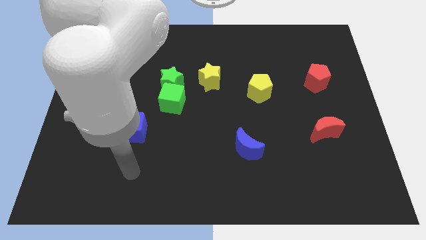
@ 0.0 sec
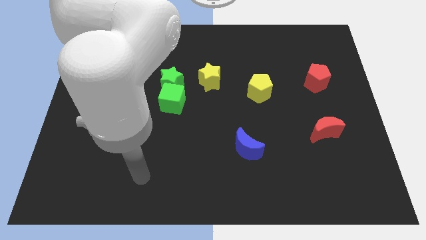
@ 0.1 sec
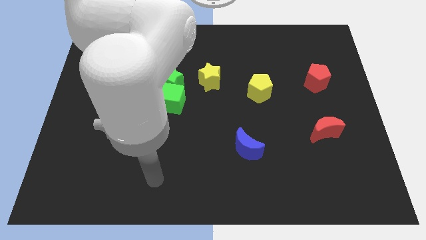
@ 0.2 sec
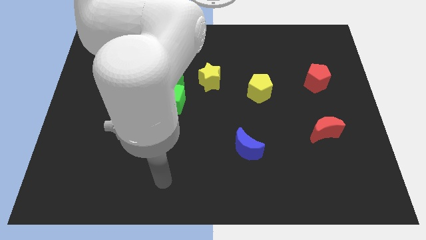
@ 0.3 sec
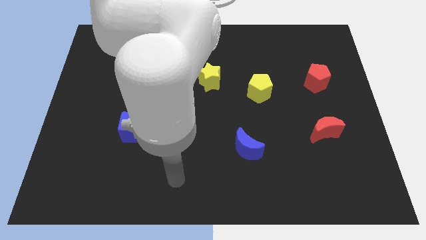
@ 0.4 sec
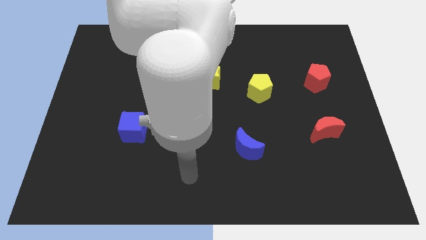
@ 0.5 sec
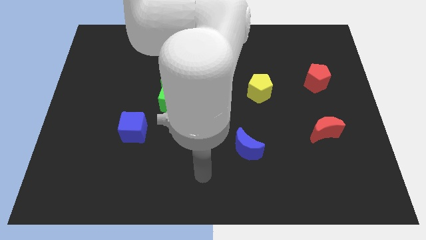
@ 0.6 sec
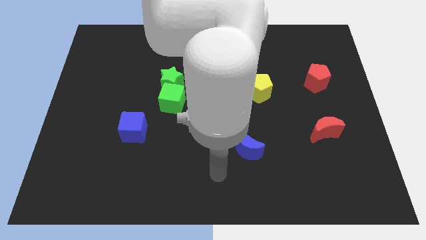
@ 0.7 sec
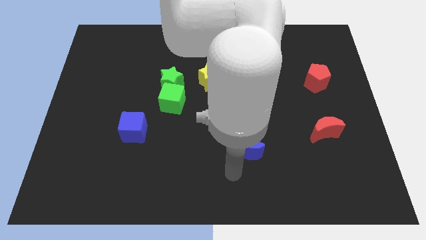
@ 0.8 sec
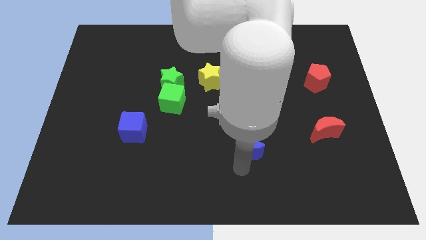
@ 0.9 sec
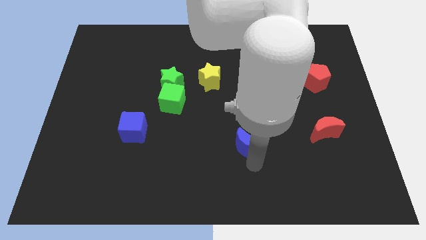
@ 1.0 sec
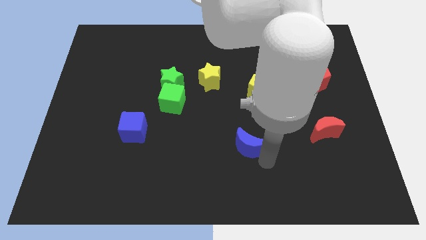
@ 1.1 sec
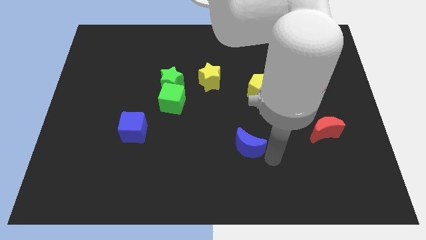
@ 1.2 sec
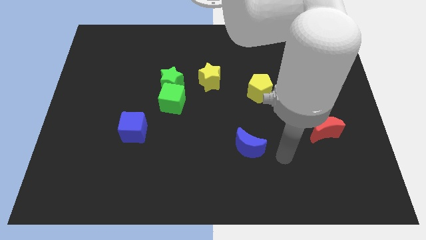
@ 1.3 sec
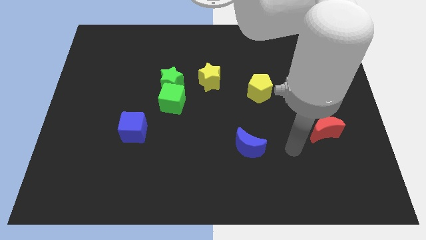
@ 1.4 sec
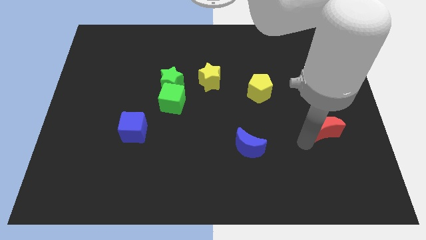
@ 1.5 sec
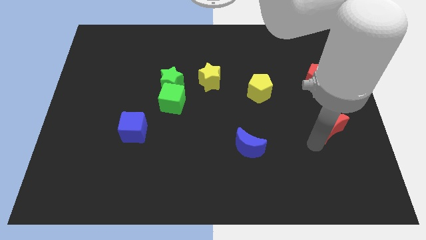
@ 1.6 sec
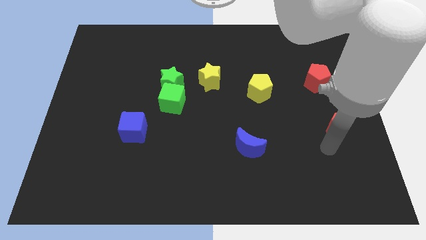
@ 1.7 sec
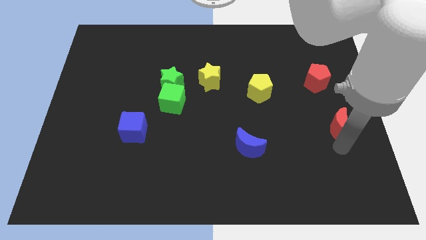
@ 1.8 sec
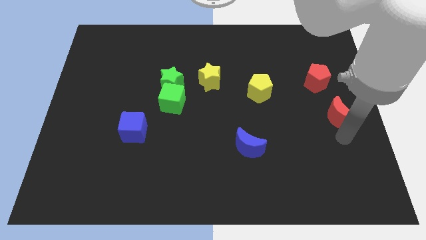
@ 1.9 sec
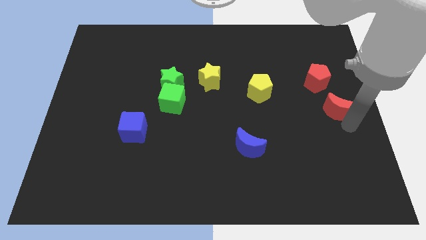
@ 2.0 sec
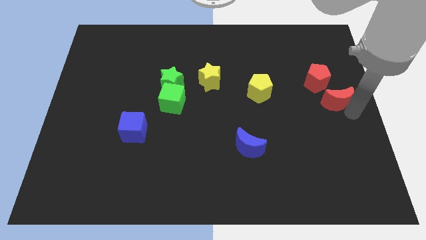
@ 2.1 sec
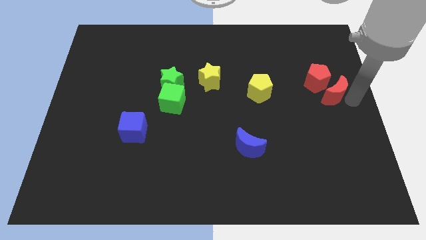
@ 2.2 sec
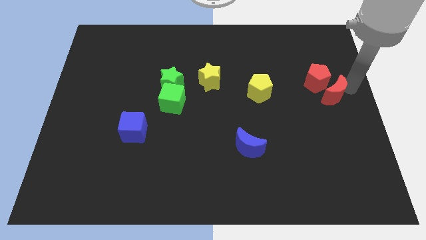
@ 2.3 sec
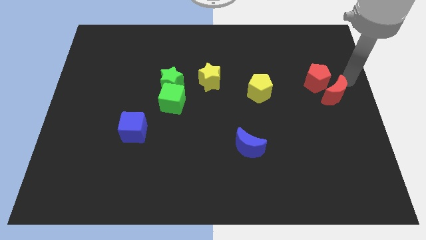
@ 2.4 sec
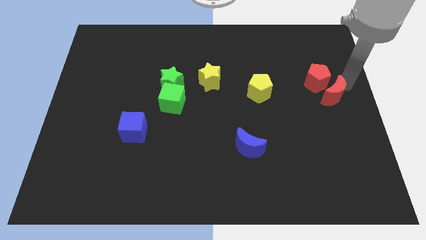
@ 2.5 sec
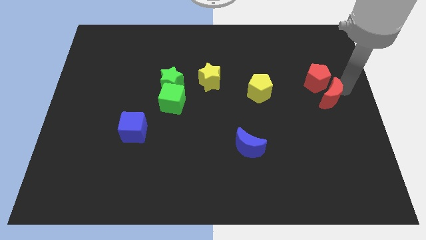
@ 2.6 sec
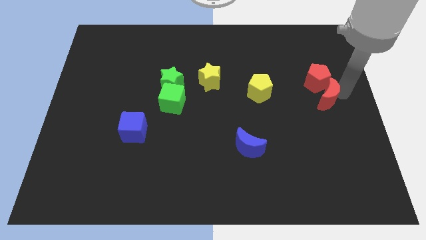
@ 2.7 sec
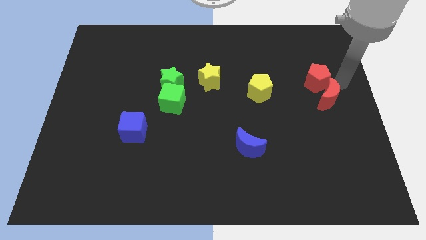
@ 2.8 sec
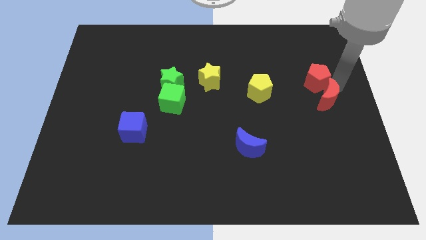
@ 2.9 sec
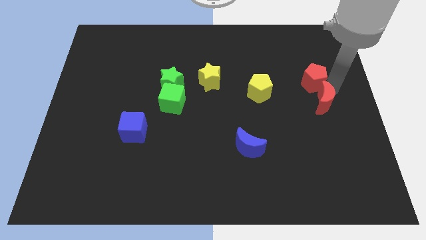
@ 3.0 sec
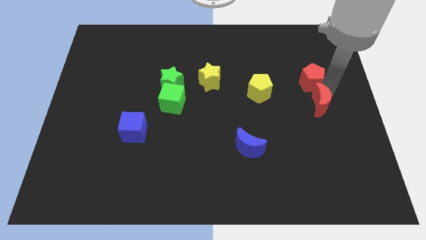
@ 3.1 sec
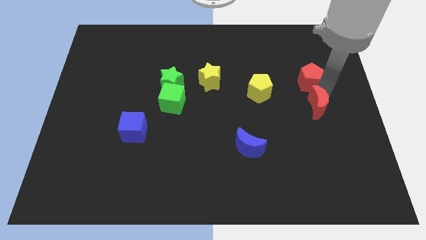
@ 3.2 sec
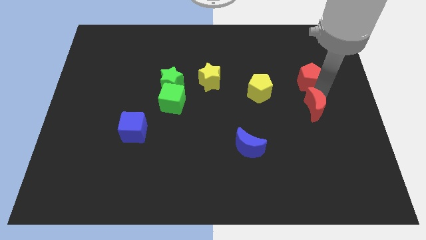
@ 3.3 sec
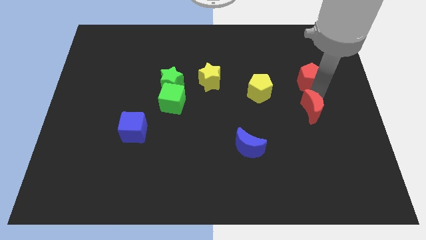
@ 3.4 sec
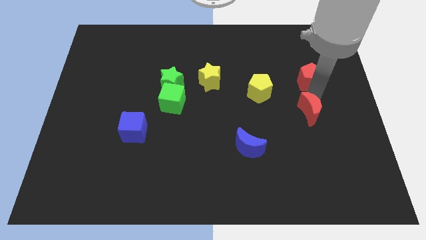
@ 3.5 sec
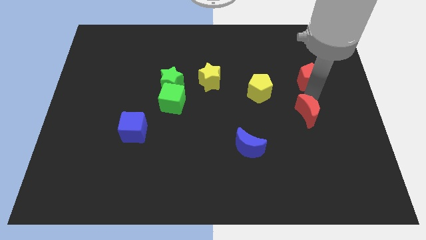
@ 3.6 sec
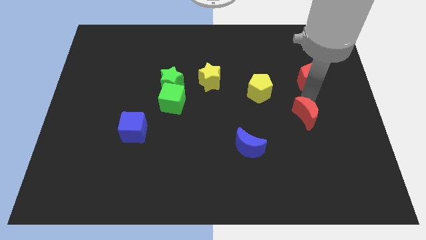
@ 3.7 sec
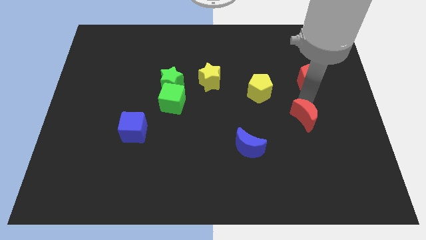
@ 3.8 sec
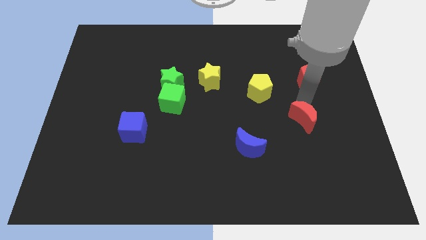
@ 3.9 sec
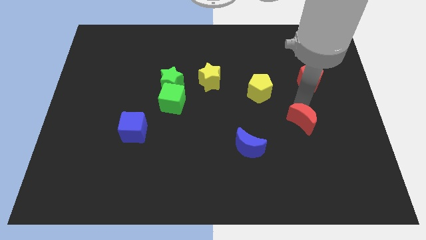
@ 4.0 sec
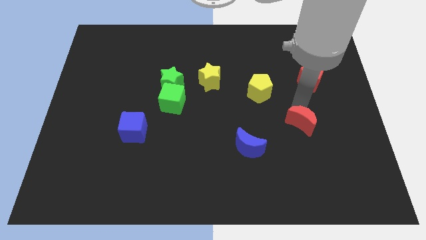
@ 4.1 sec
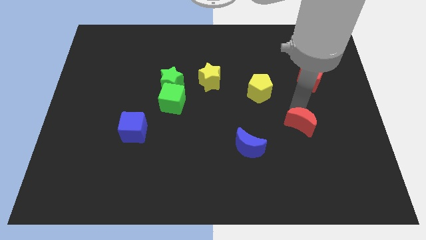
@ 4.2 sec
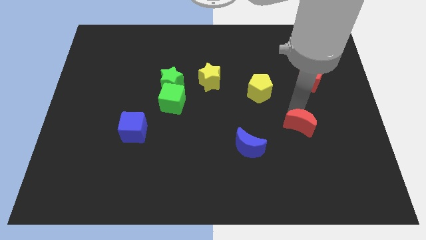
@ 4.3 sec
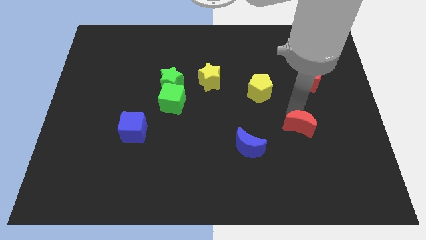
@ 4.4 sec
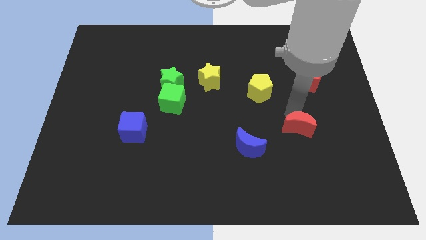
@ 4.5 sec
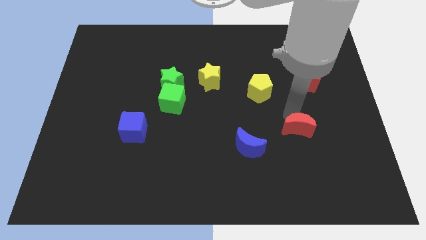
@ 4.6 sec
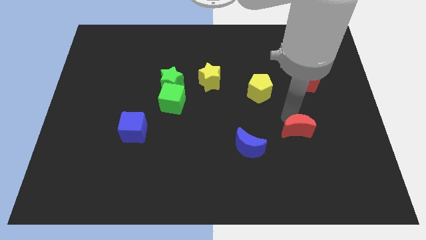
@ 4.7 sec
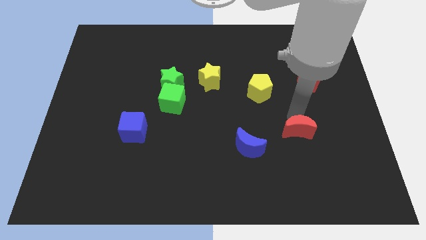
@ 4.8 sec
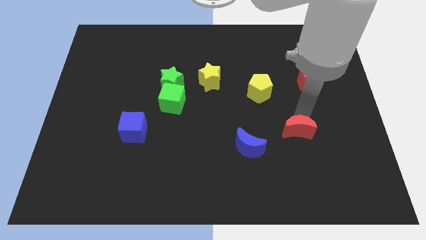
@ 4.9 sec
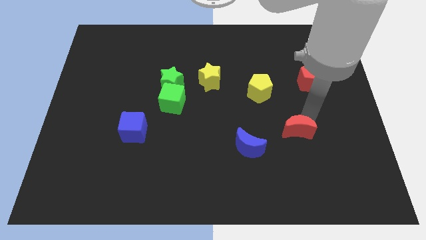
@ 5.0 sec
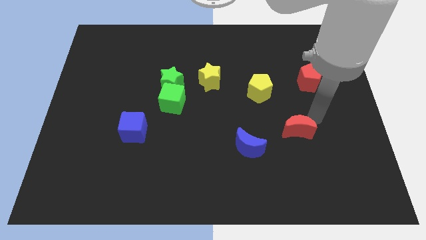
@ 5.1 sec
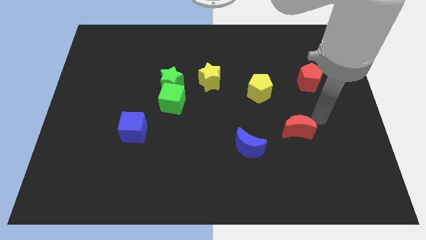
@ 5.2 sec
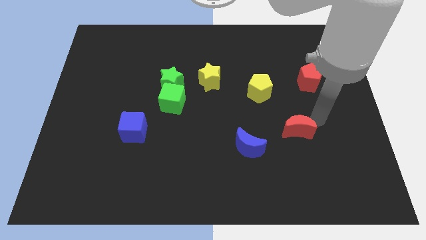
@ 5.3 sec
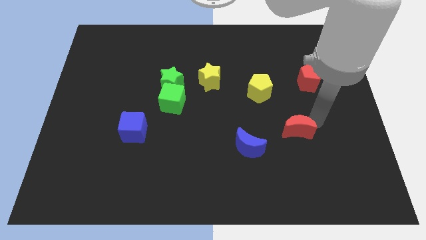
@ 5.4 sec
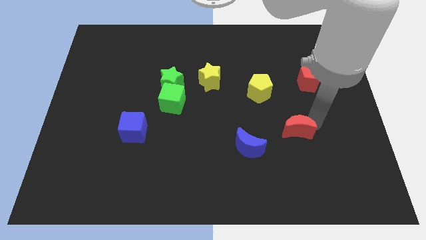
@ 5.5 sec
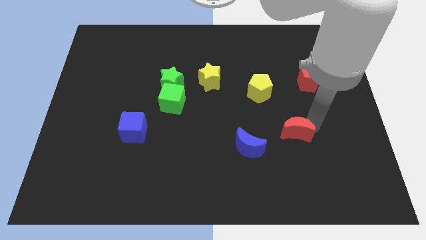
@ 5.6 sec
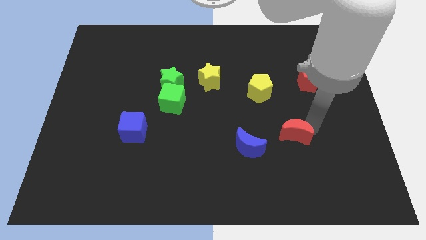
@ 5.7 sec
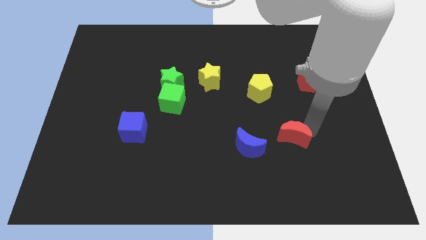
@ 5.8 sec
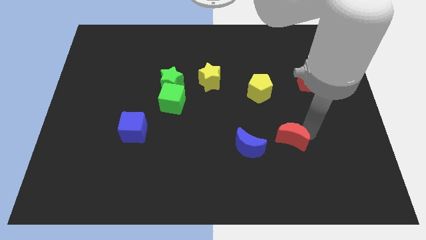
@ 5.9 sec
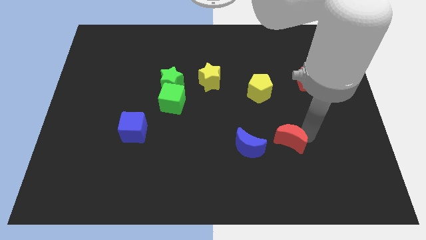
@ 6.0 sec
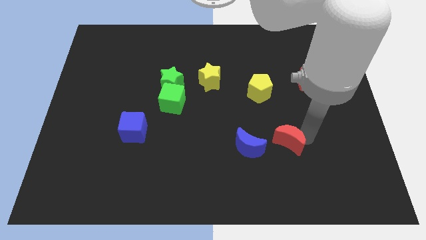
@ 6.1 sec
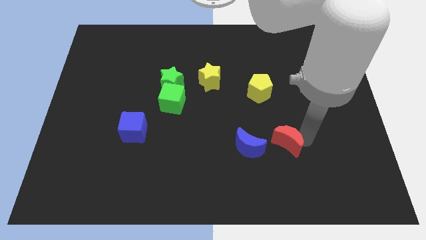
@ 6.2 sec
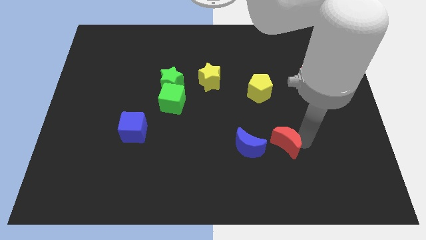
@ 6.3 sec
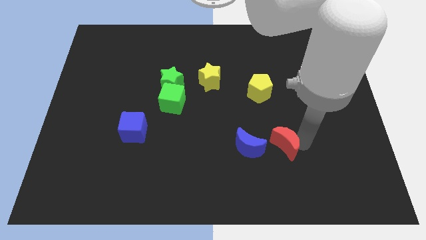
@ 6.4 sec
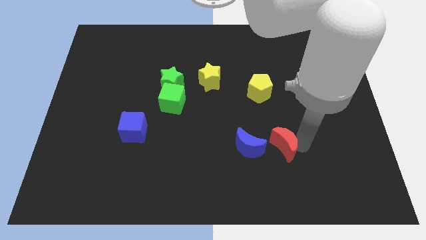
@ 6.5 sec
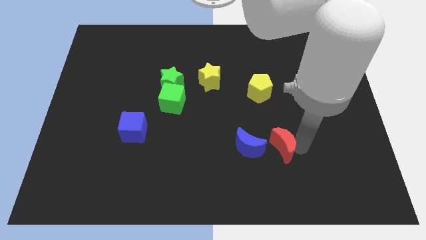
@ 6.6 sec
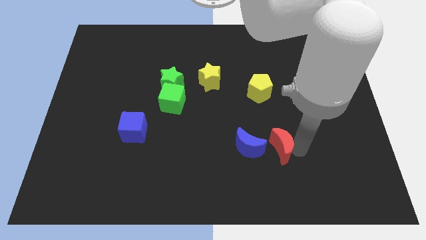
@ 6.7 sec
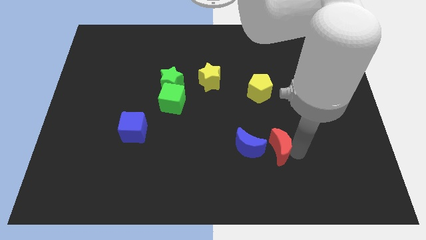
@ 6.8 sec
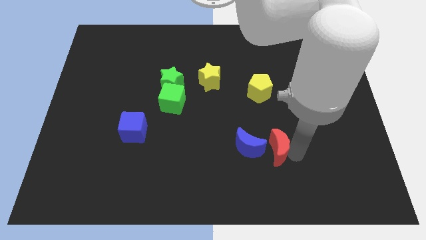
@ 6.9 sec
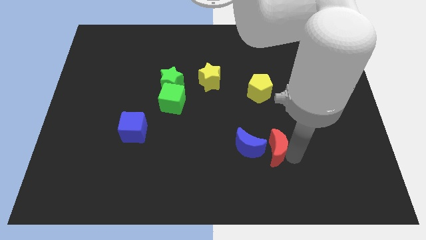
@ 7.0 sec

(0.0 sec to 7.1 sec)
move the red moon next to the blue moon
